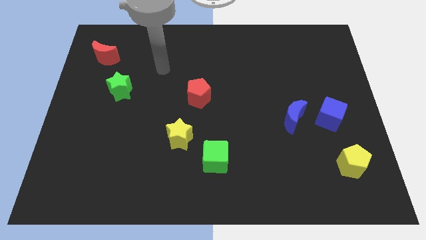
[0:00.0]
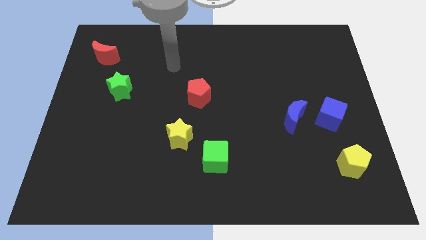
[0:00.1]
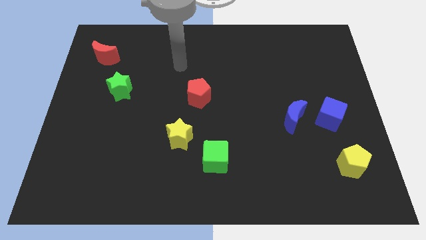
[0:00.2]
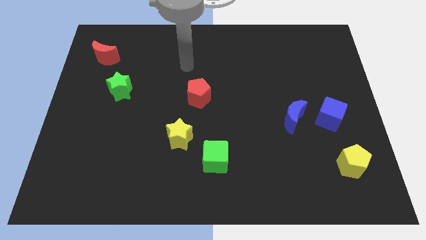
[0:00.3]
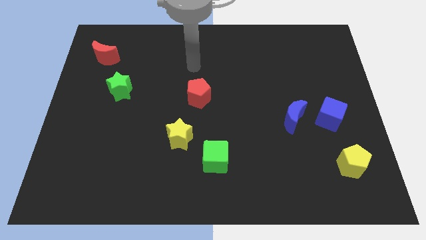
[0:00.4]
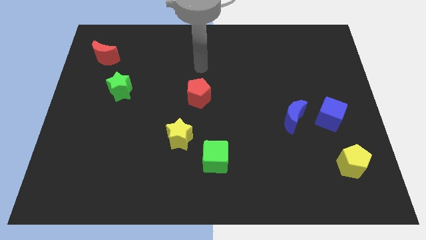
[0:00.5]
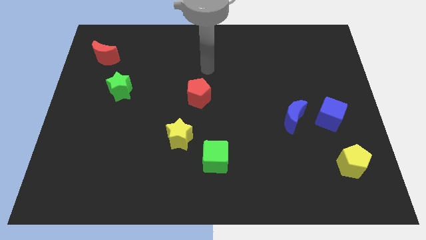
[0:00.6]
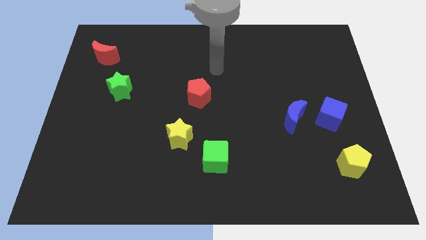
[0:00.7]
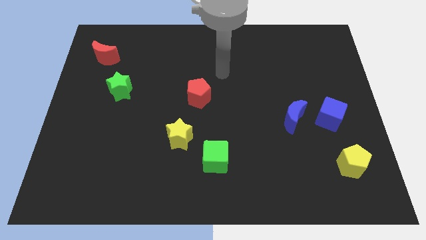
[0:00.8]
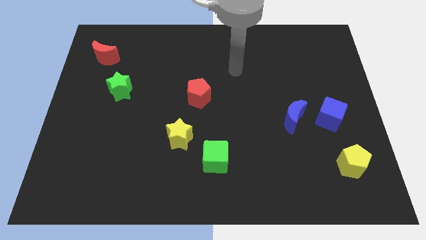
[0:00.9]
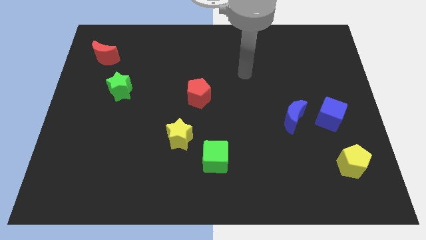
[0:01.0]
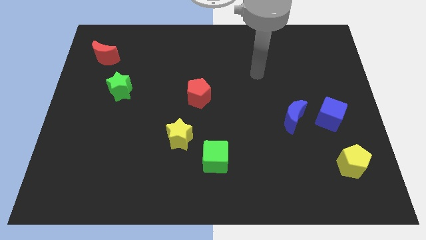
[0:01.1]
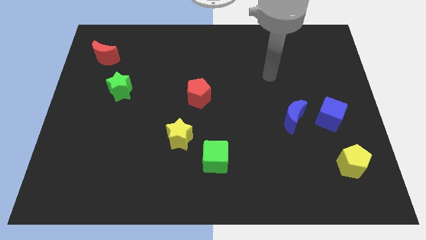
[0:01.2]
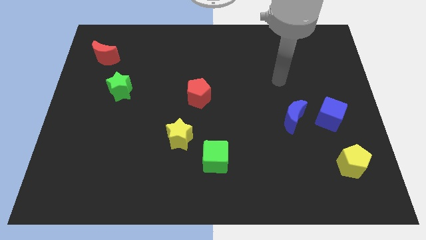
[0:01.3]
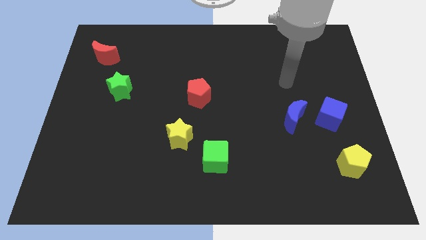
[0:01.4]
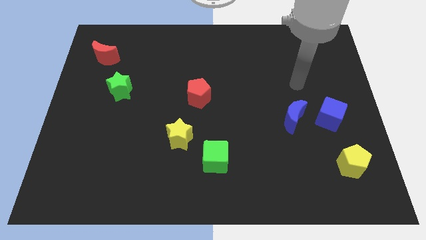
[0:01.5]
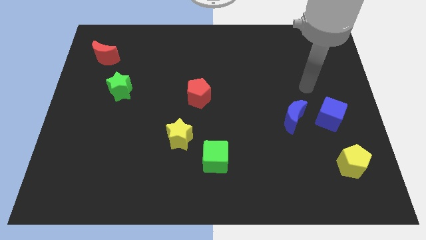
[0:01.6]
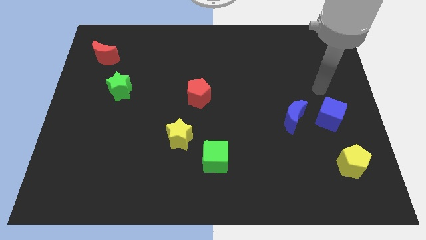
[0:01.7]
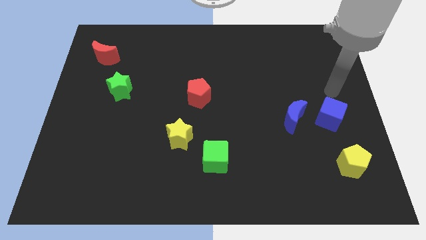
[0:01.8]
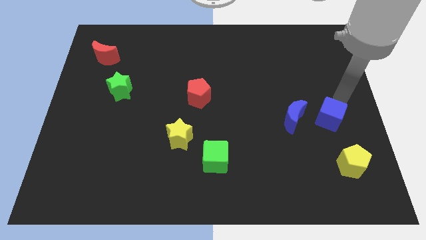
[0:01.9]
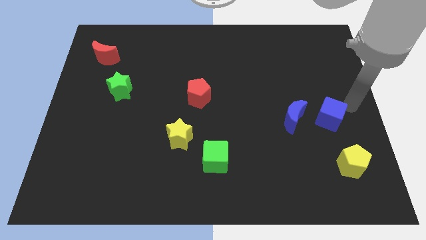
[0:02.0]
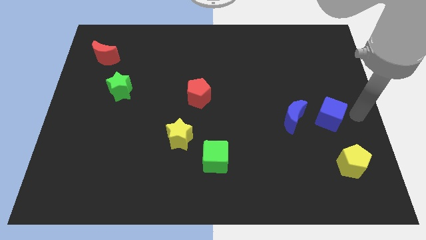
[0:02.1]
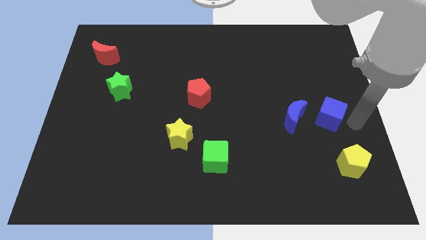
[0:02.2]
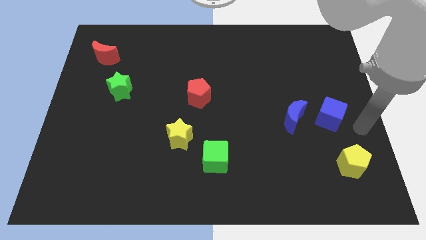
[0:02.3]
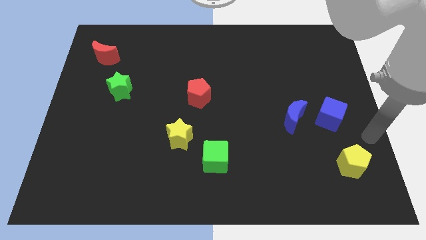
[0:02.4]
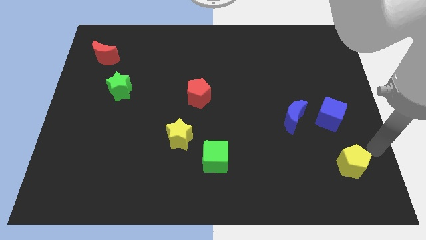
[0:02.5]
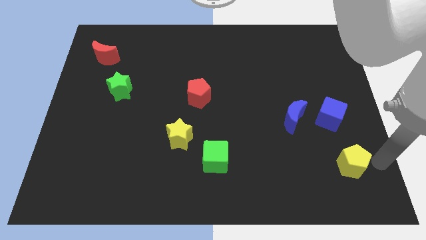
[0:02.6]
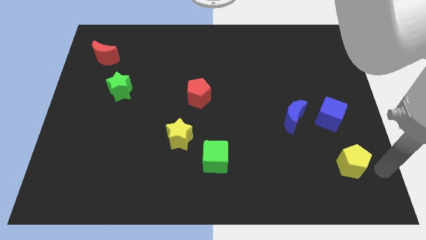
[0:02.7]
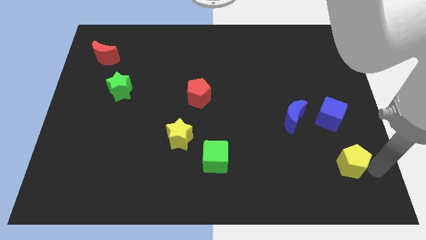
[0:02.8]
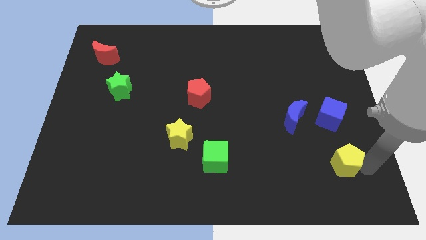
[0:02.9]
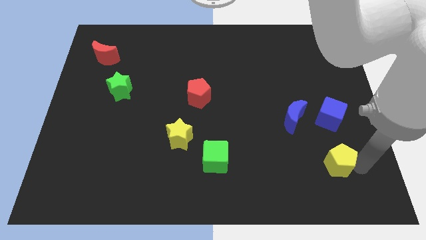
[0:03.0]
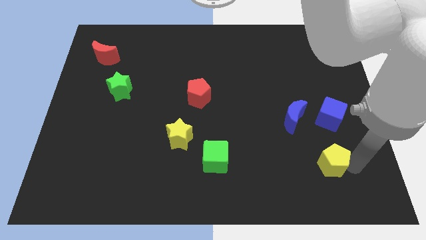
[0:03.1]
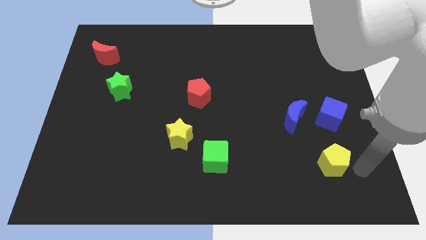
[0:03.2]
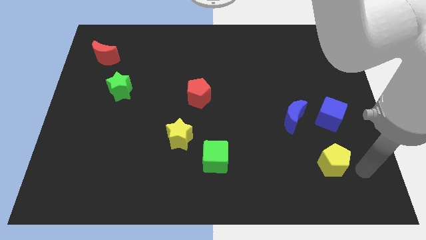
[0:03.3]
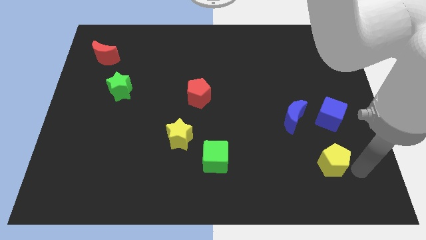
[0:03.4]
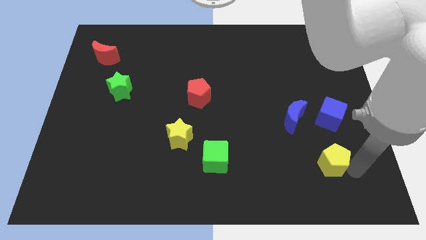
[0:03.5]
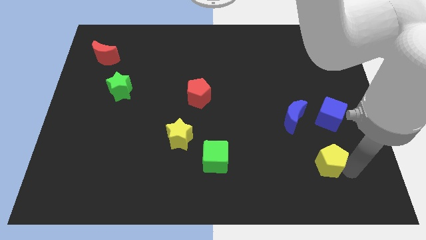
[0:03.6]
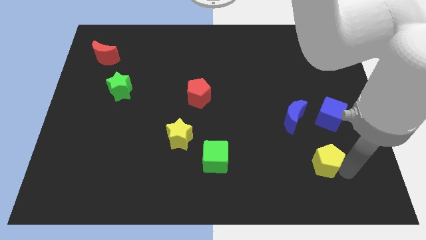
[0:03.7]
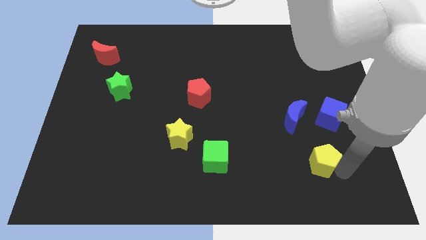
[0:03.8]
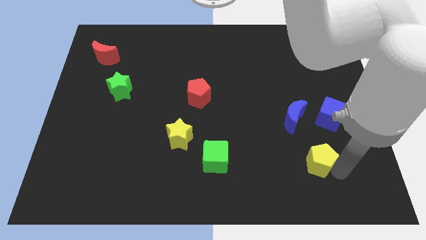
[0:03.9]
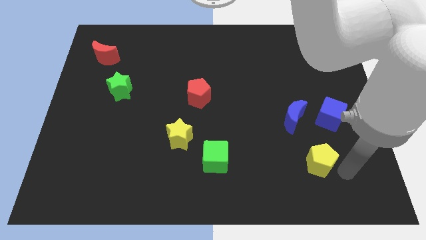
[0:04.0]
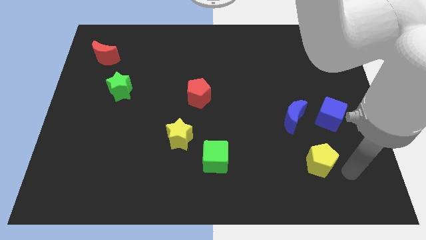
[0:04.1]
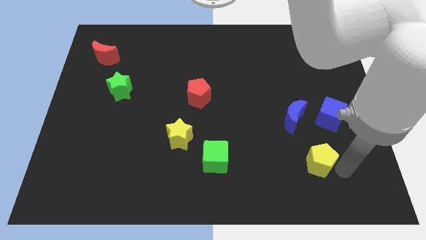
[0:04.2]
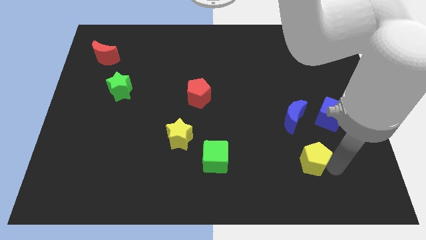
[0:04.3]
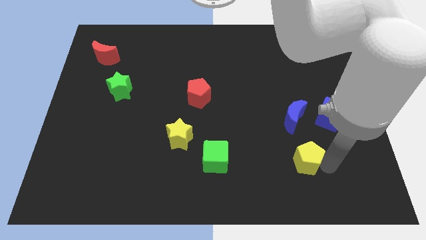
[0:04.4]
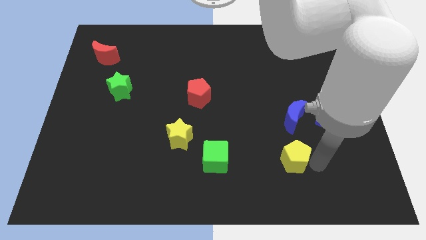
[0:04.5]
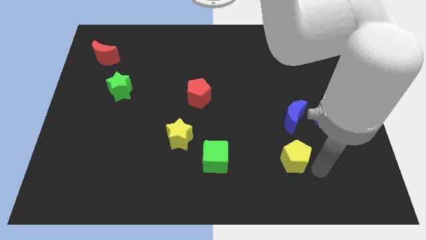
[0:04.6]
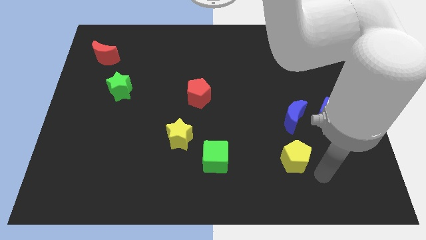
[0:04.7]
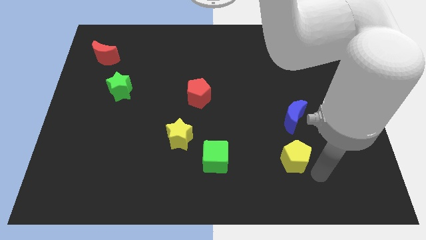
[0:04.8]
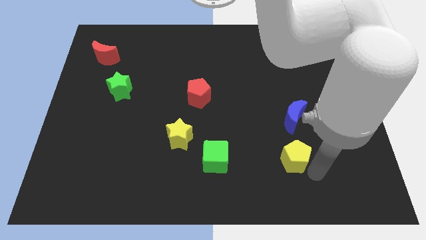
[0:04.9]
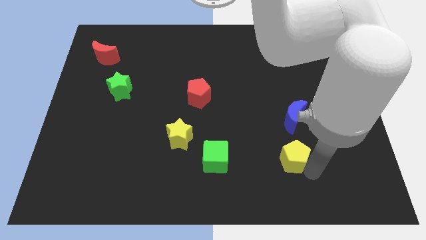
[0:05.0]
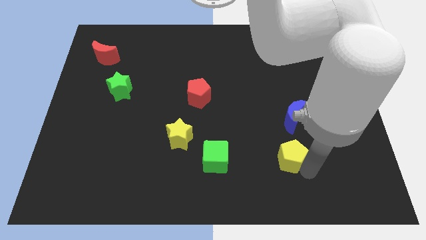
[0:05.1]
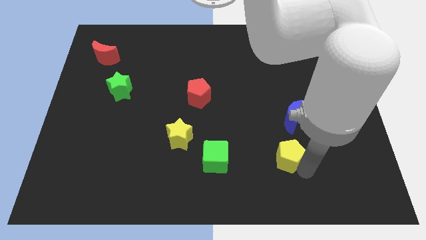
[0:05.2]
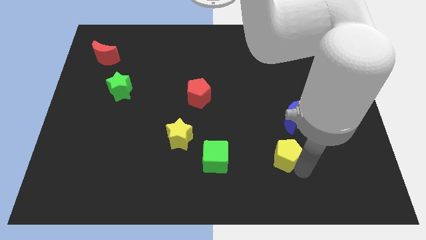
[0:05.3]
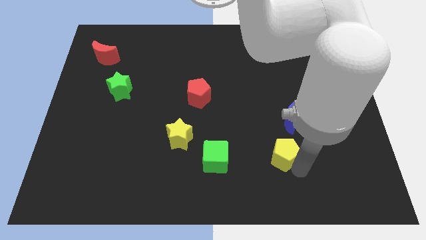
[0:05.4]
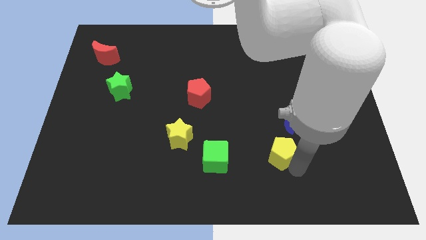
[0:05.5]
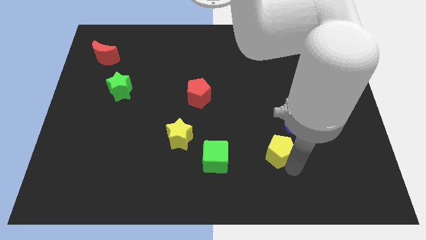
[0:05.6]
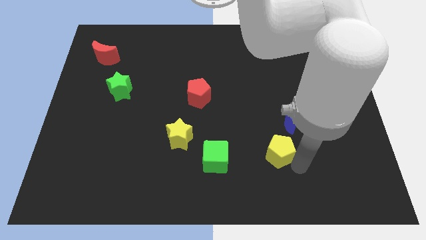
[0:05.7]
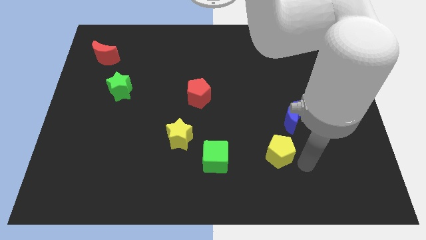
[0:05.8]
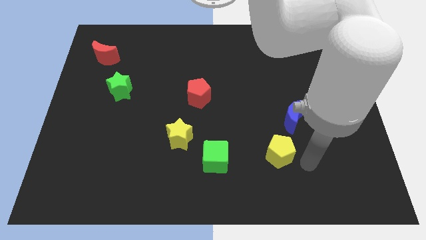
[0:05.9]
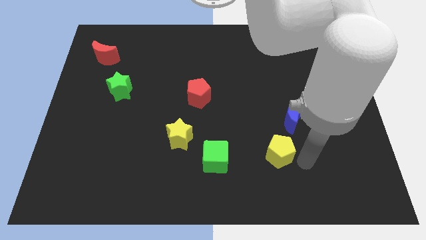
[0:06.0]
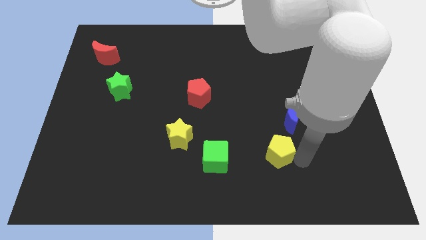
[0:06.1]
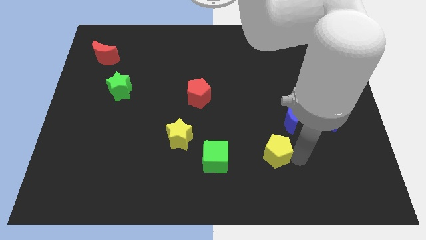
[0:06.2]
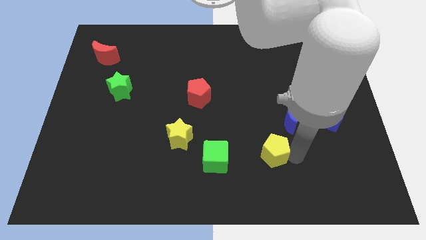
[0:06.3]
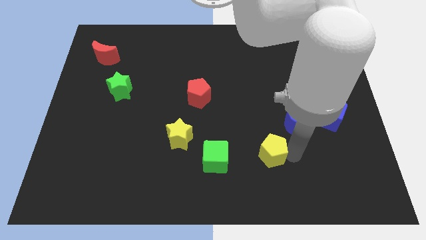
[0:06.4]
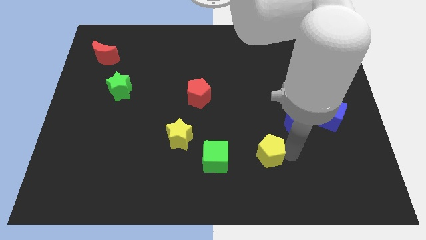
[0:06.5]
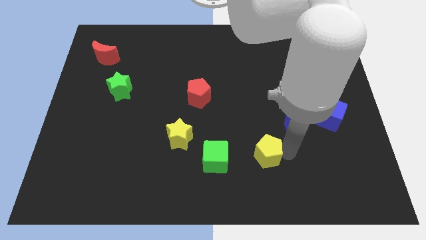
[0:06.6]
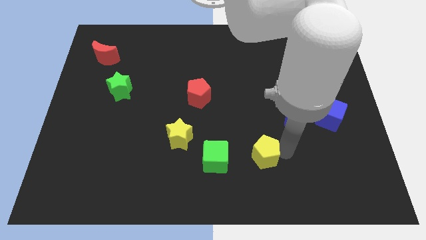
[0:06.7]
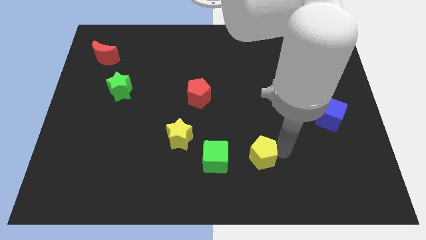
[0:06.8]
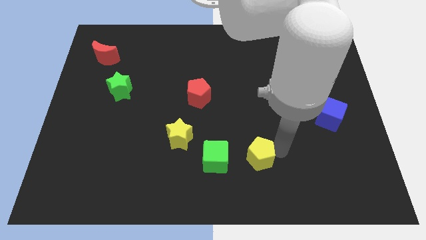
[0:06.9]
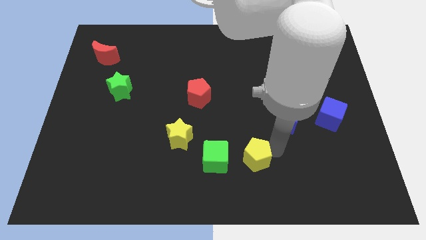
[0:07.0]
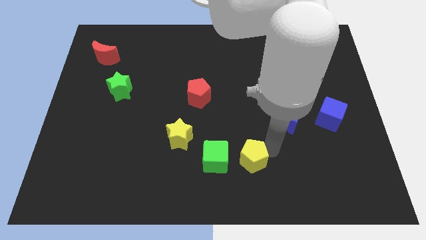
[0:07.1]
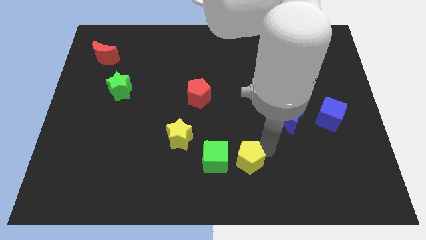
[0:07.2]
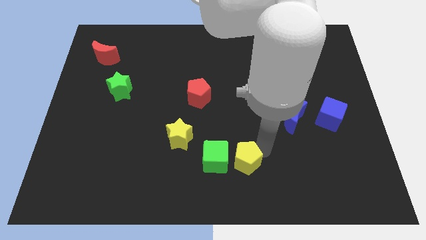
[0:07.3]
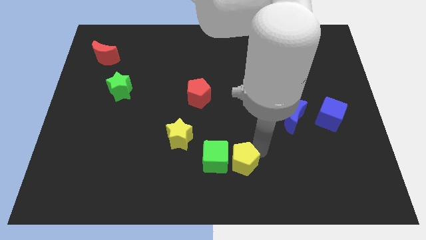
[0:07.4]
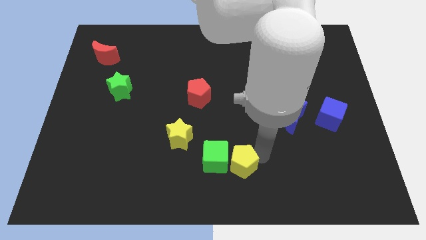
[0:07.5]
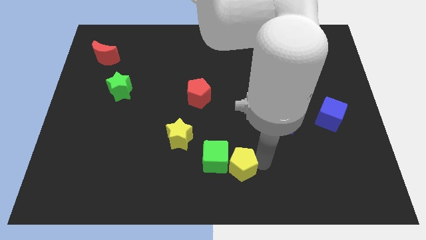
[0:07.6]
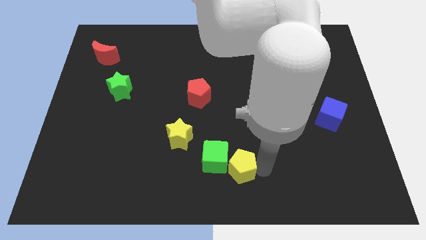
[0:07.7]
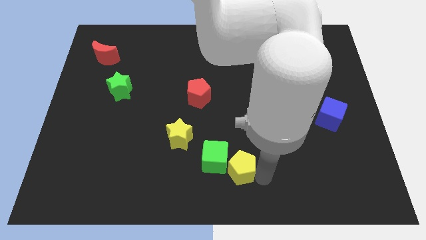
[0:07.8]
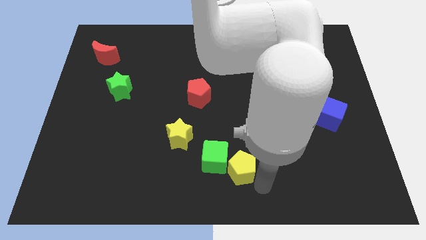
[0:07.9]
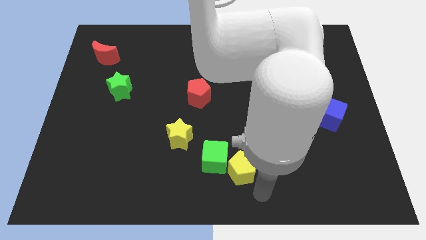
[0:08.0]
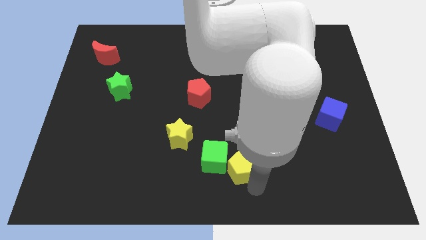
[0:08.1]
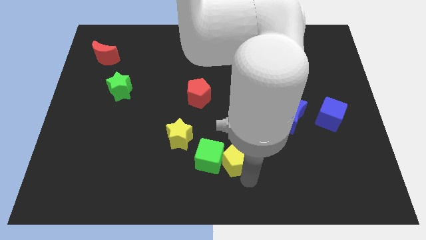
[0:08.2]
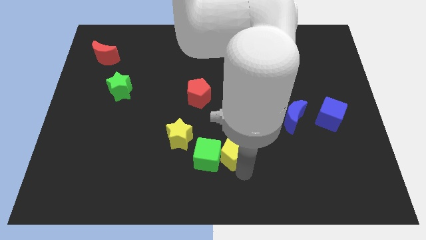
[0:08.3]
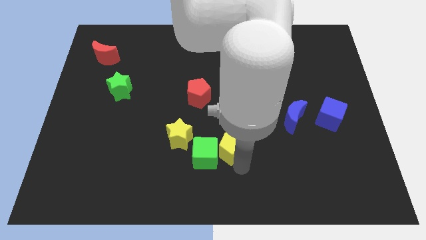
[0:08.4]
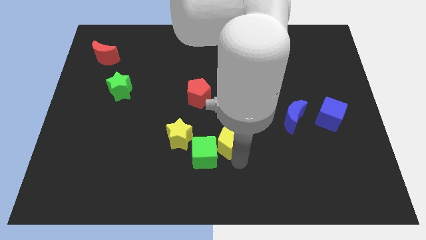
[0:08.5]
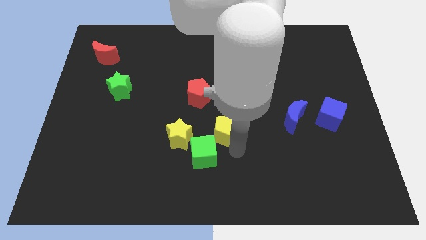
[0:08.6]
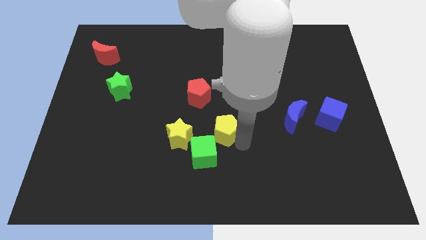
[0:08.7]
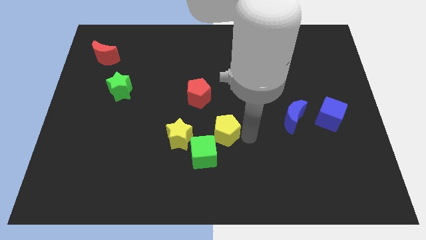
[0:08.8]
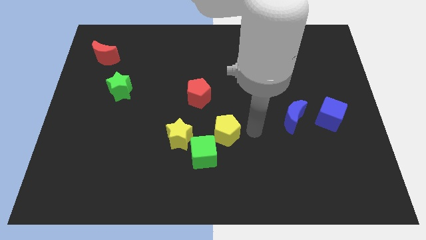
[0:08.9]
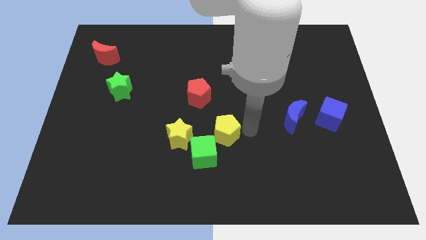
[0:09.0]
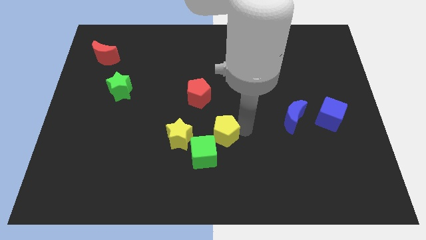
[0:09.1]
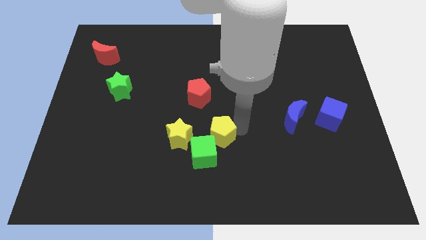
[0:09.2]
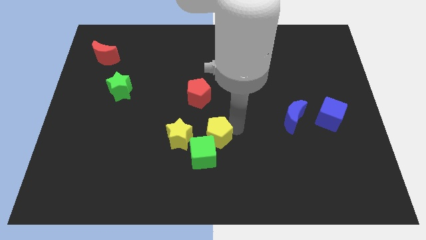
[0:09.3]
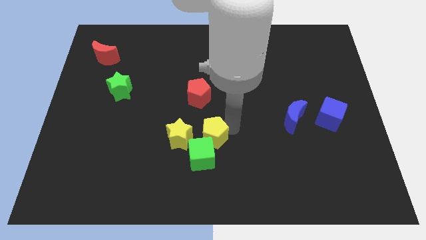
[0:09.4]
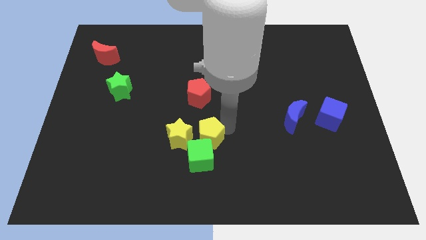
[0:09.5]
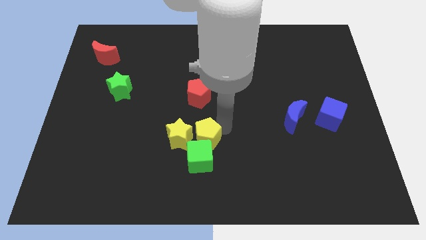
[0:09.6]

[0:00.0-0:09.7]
push the yellow pentagon towards the yellow star
